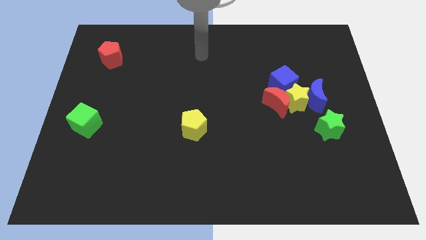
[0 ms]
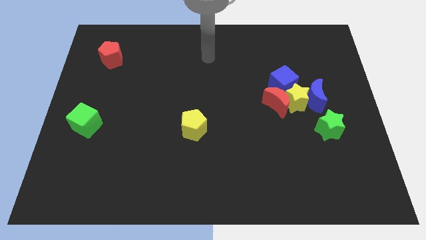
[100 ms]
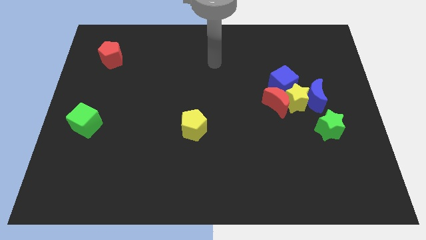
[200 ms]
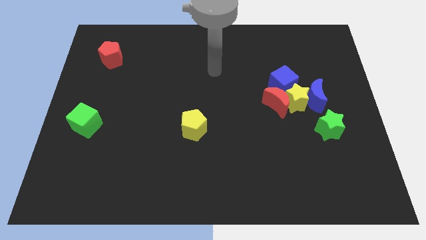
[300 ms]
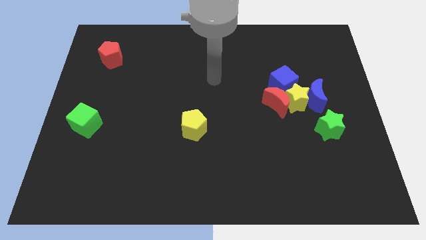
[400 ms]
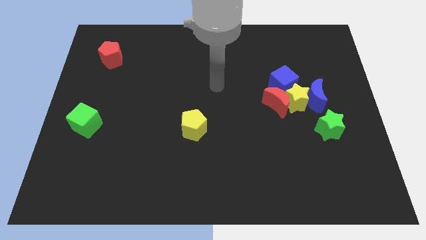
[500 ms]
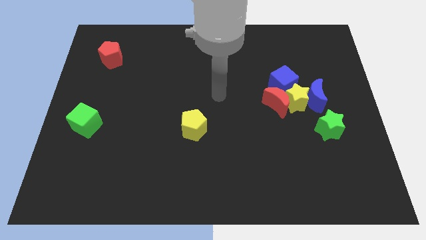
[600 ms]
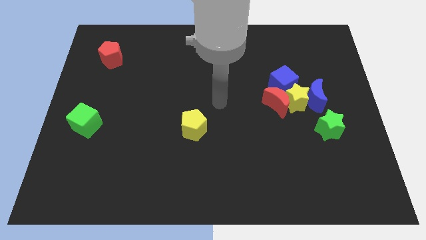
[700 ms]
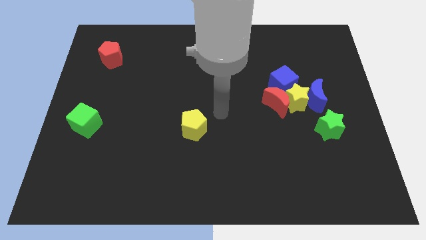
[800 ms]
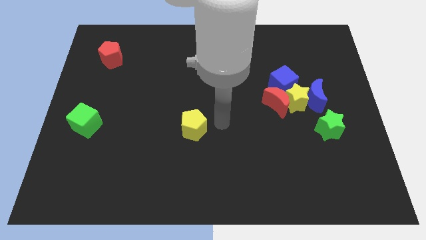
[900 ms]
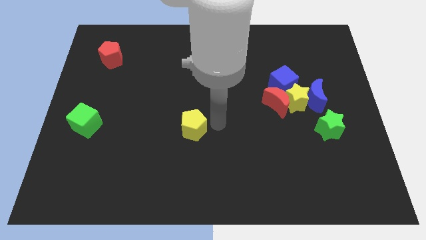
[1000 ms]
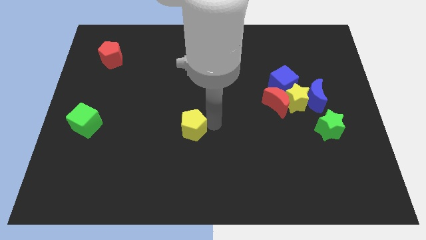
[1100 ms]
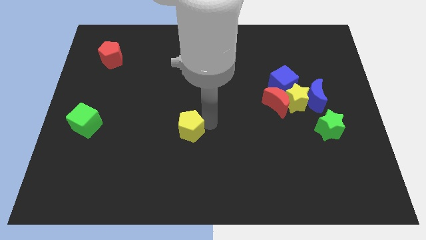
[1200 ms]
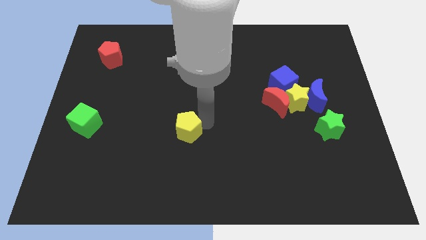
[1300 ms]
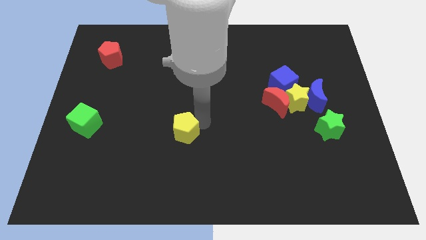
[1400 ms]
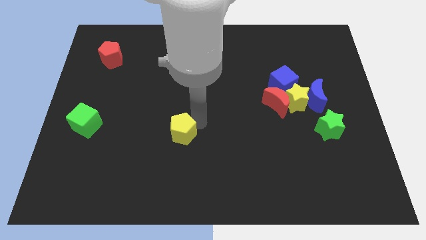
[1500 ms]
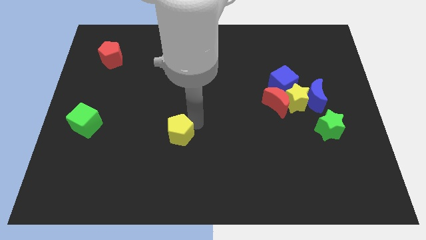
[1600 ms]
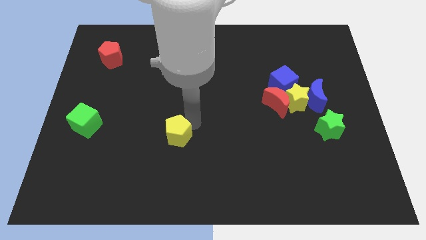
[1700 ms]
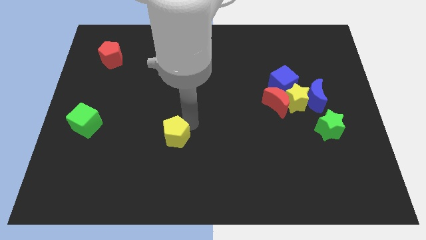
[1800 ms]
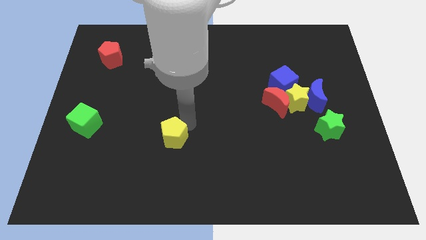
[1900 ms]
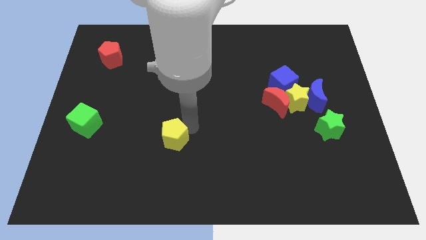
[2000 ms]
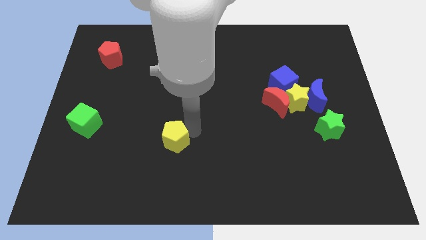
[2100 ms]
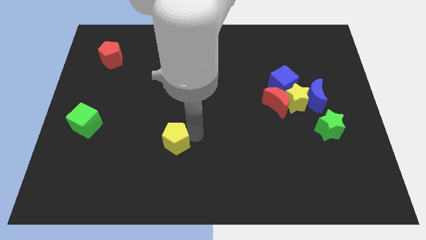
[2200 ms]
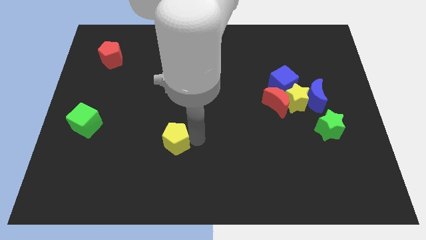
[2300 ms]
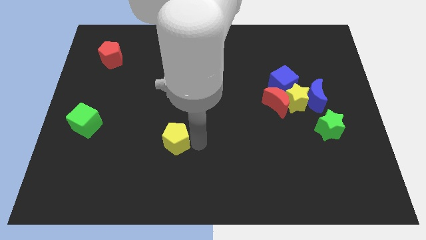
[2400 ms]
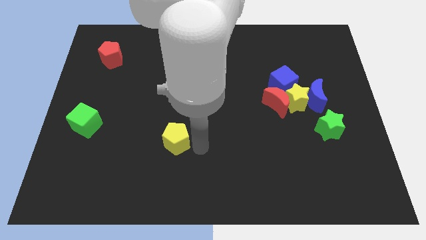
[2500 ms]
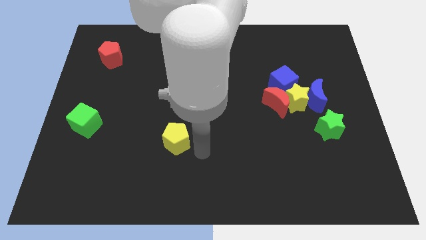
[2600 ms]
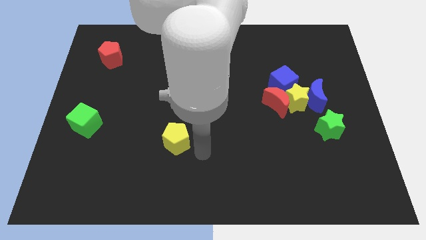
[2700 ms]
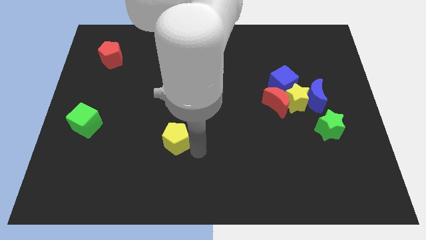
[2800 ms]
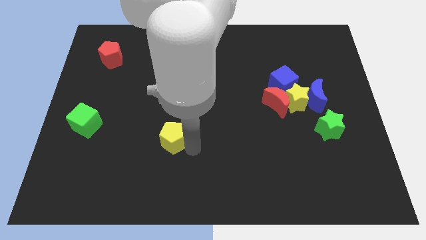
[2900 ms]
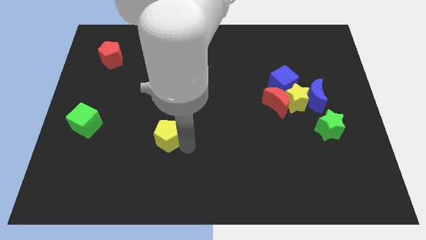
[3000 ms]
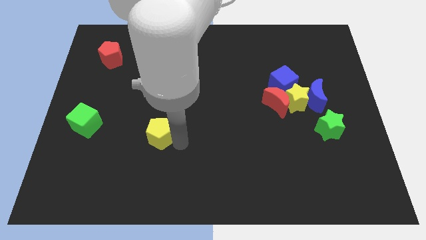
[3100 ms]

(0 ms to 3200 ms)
slide the yellow pentagon left a bit

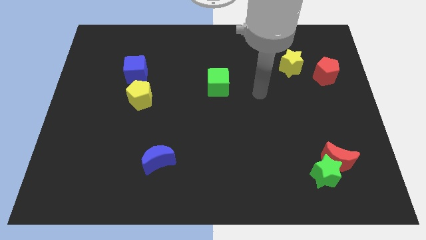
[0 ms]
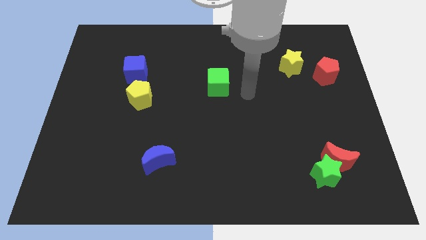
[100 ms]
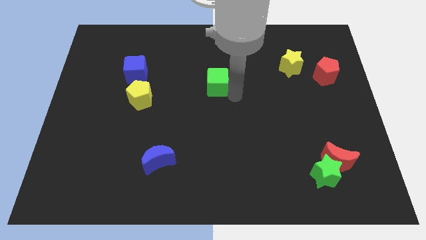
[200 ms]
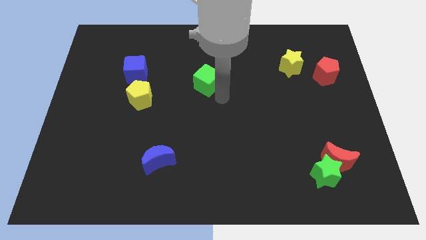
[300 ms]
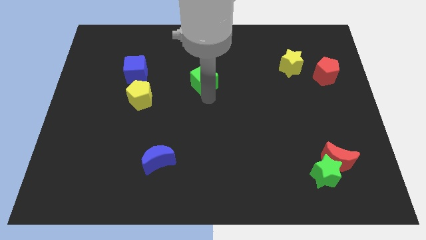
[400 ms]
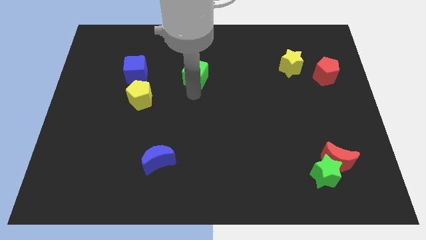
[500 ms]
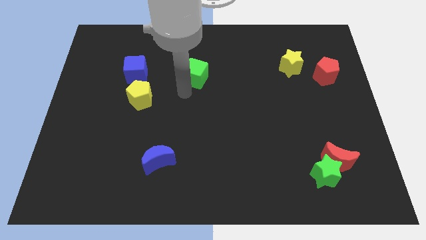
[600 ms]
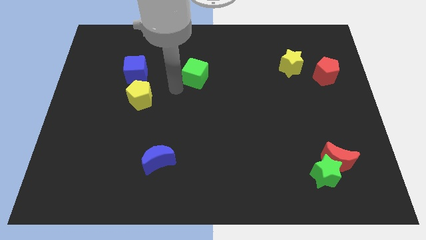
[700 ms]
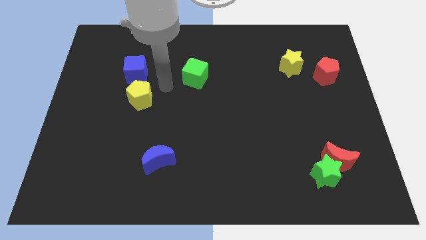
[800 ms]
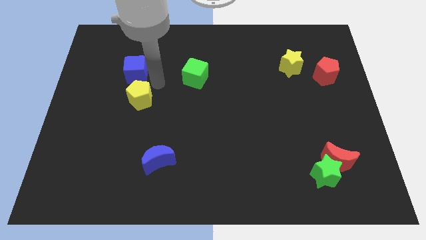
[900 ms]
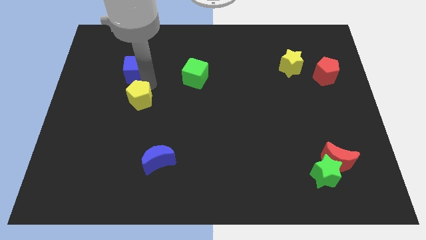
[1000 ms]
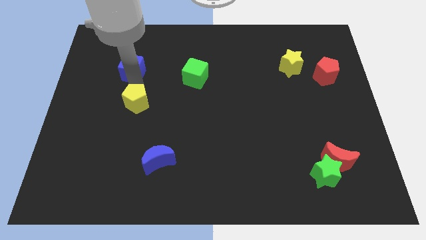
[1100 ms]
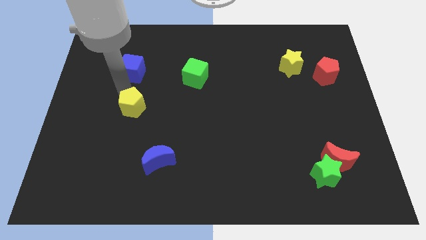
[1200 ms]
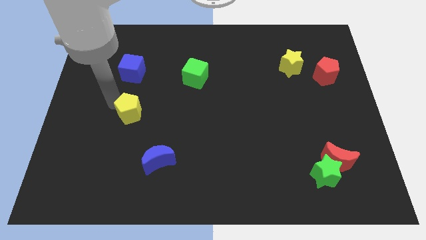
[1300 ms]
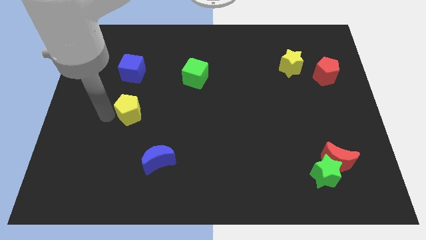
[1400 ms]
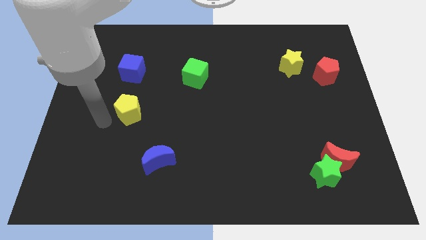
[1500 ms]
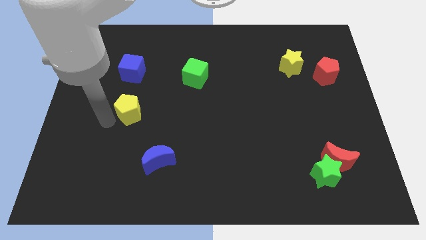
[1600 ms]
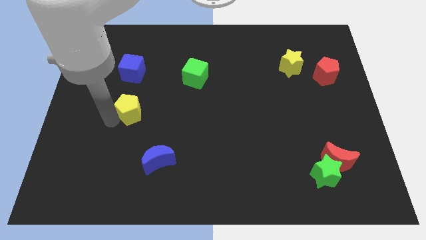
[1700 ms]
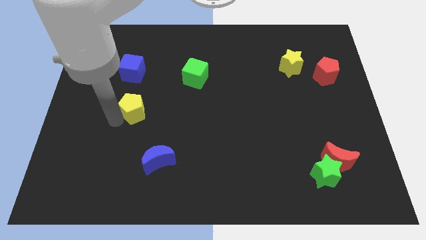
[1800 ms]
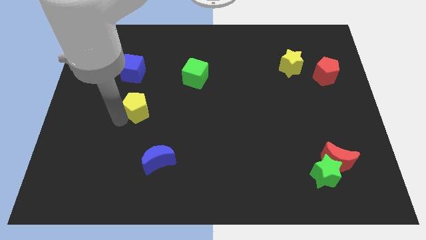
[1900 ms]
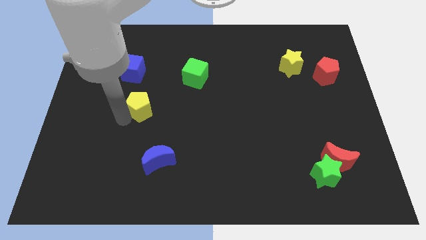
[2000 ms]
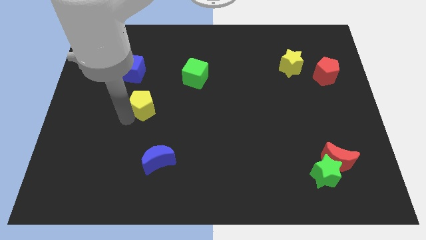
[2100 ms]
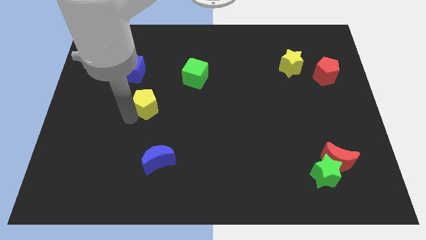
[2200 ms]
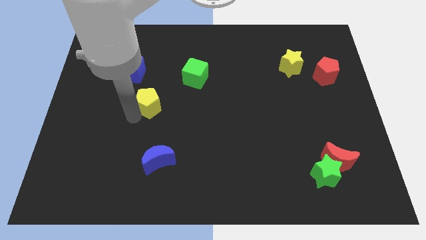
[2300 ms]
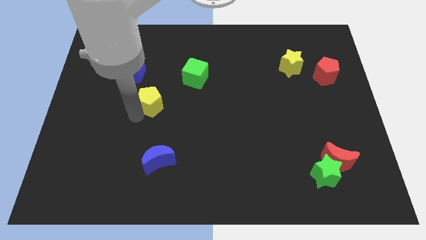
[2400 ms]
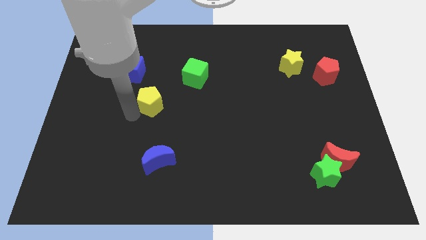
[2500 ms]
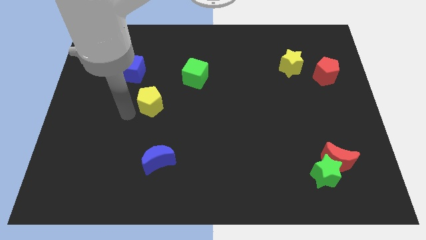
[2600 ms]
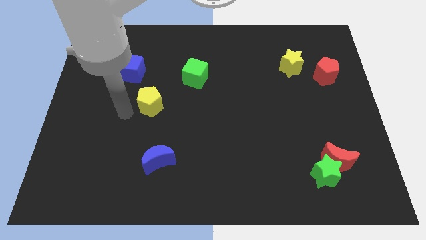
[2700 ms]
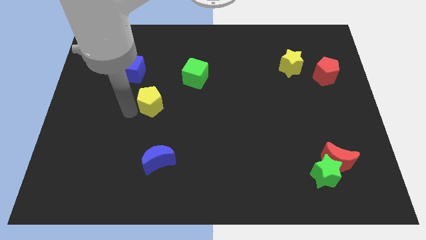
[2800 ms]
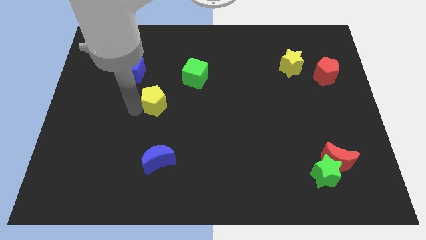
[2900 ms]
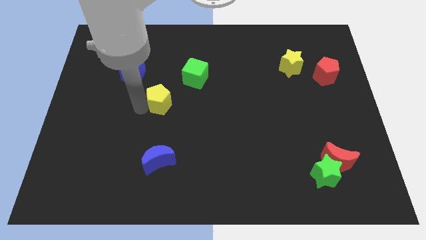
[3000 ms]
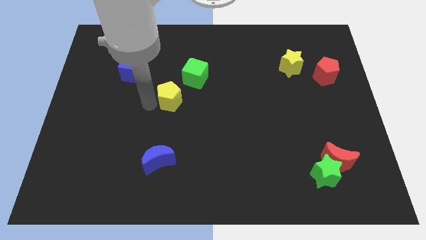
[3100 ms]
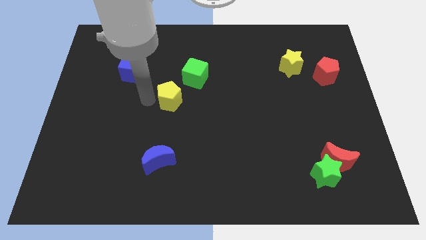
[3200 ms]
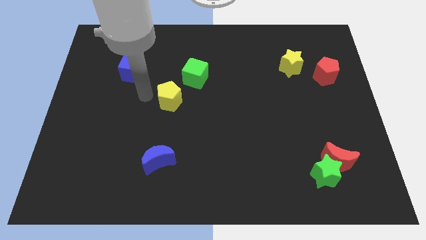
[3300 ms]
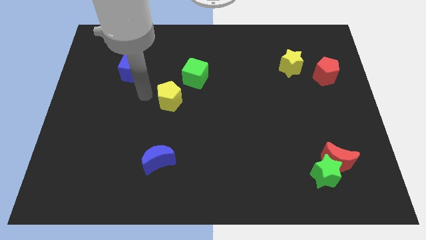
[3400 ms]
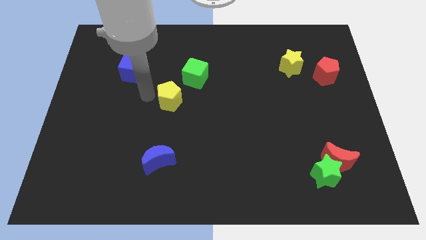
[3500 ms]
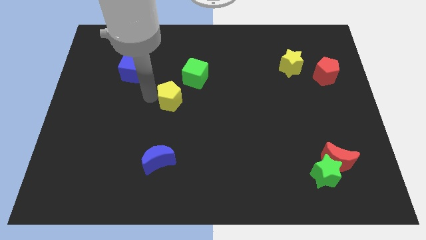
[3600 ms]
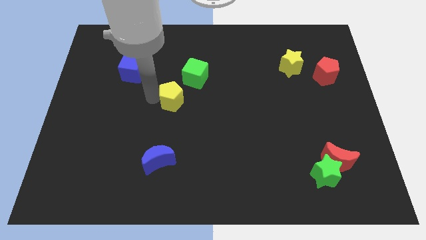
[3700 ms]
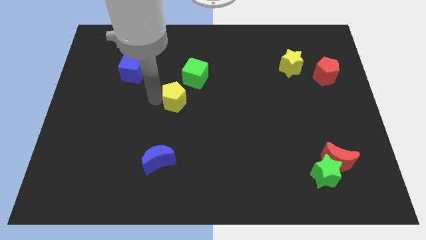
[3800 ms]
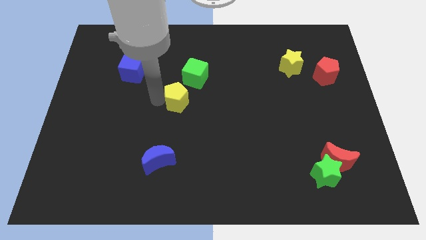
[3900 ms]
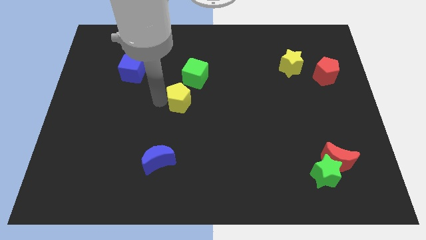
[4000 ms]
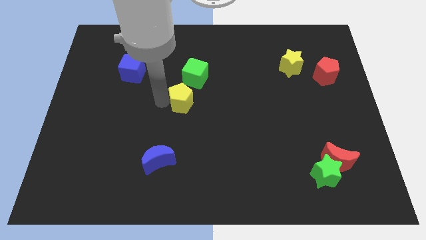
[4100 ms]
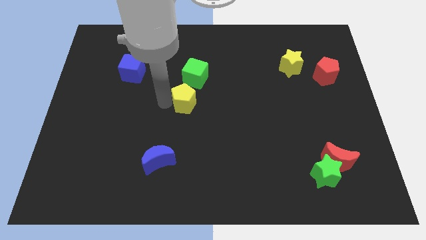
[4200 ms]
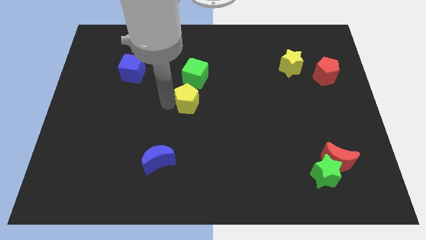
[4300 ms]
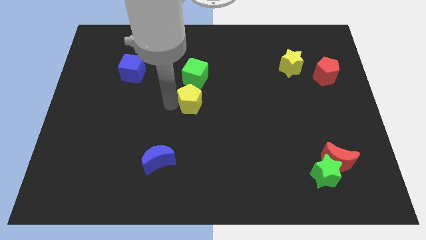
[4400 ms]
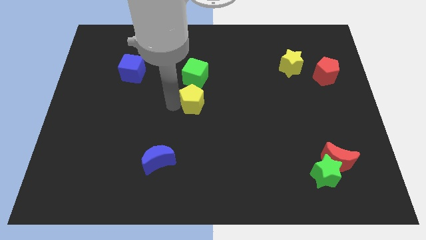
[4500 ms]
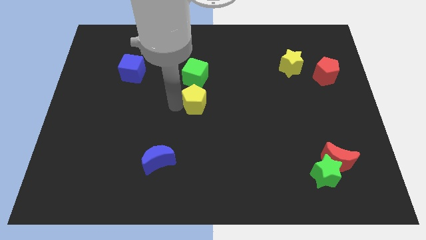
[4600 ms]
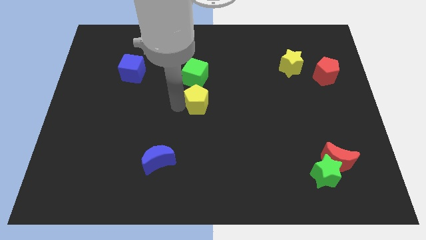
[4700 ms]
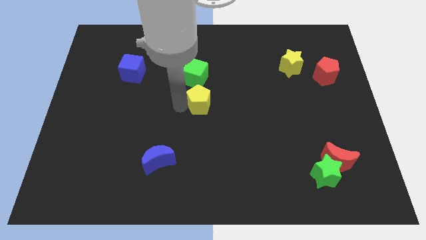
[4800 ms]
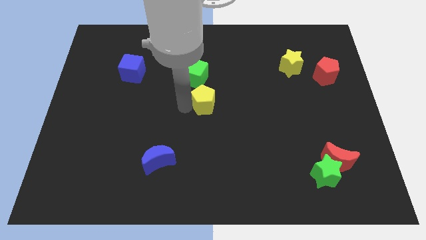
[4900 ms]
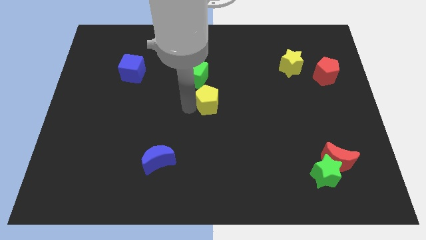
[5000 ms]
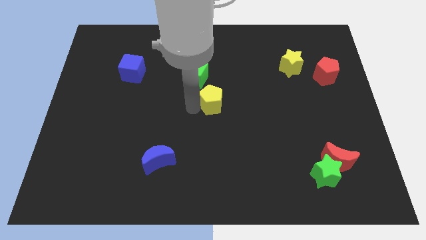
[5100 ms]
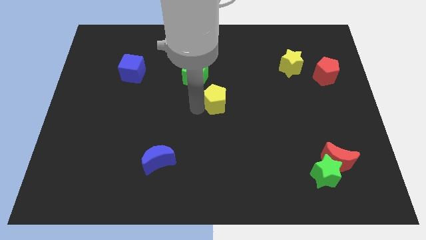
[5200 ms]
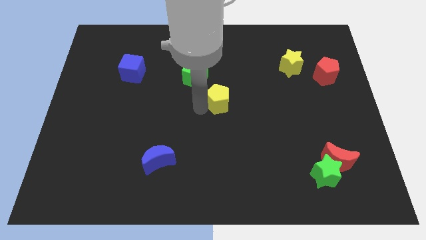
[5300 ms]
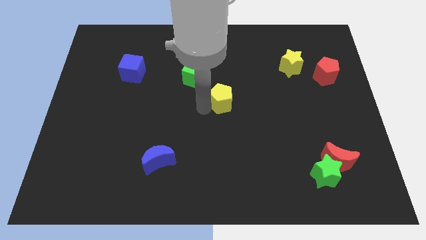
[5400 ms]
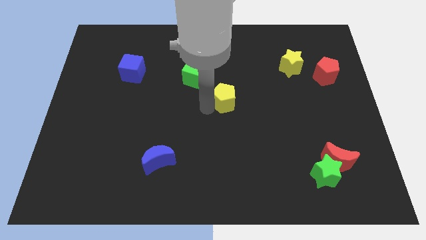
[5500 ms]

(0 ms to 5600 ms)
move the yellow pentagon to the right
